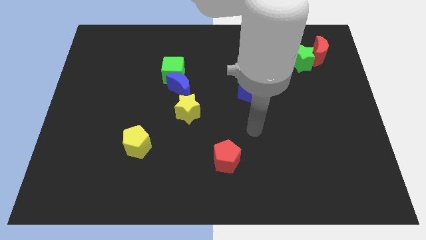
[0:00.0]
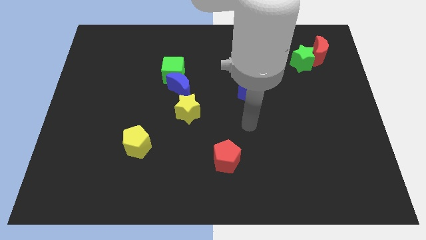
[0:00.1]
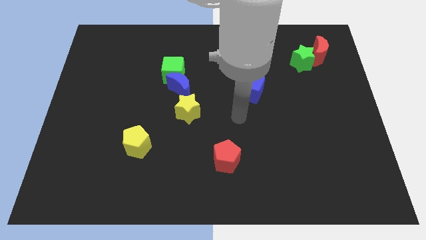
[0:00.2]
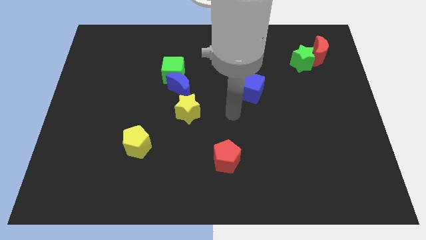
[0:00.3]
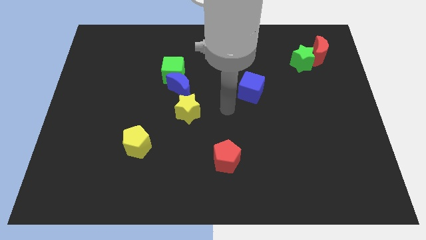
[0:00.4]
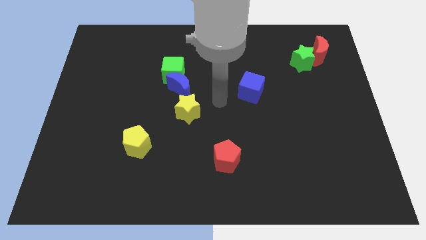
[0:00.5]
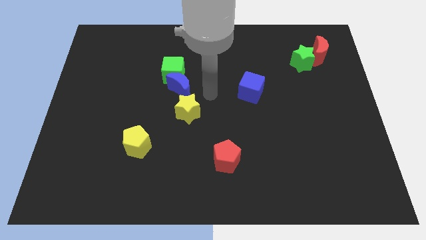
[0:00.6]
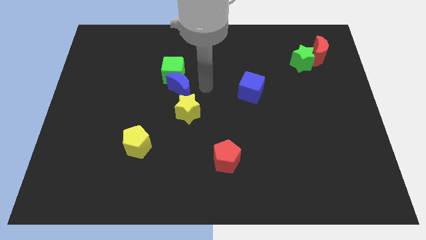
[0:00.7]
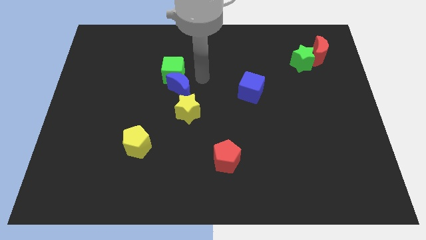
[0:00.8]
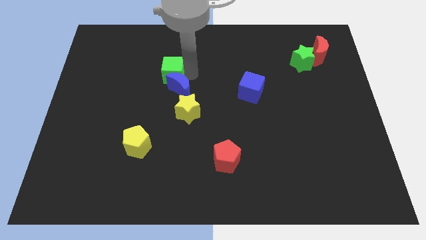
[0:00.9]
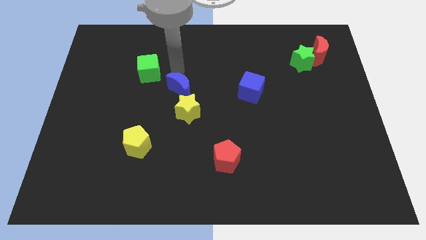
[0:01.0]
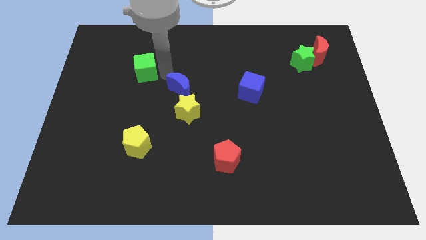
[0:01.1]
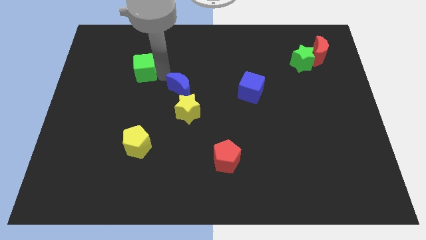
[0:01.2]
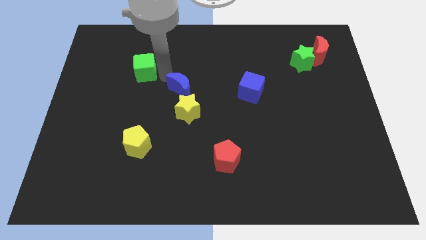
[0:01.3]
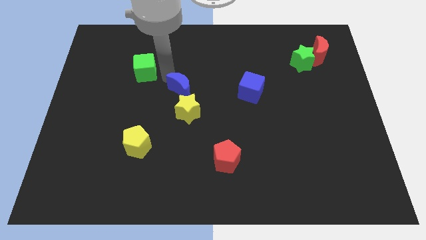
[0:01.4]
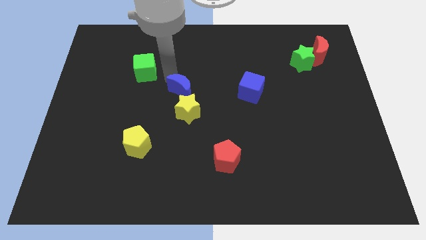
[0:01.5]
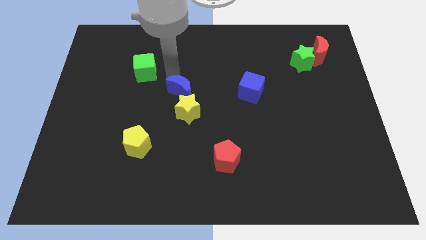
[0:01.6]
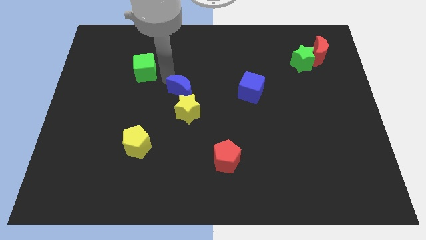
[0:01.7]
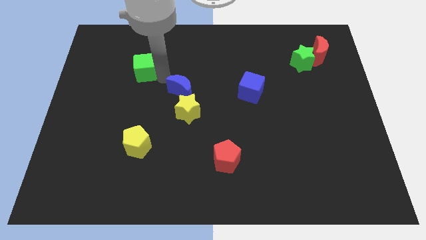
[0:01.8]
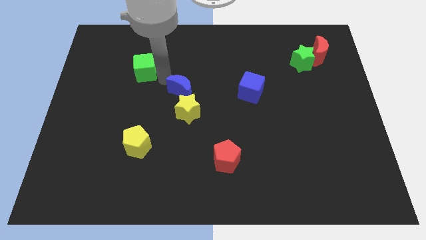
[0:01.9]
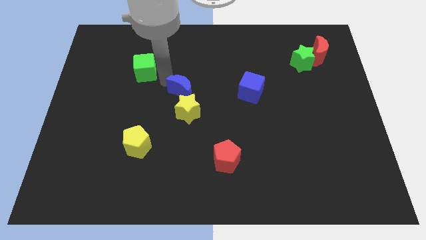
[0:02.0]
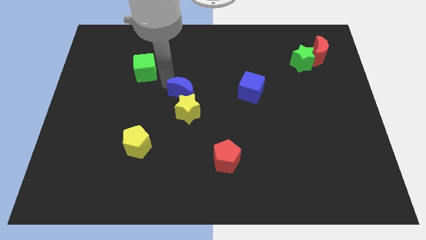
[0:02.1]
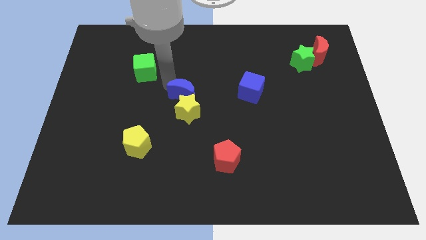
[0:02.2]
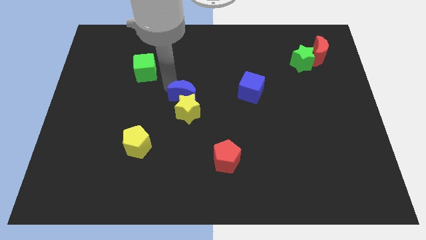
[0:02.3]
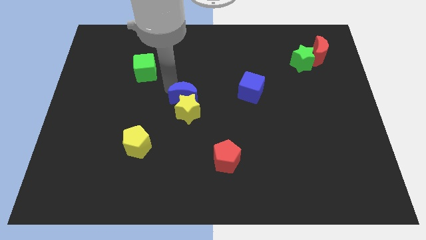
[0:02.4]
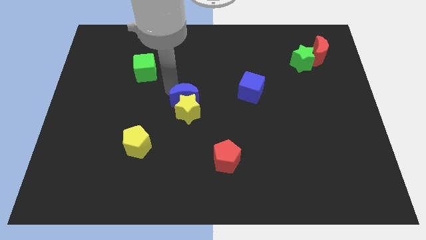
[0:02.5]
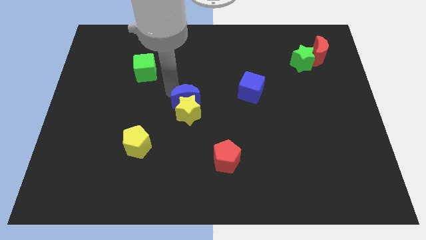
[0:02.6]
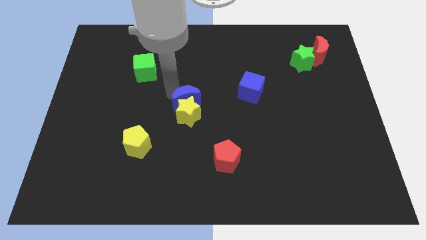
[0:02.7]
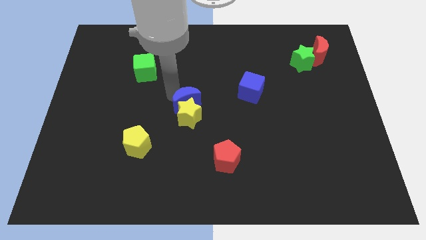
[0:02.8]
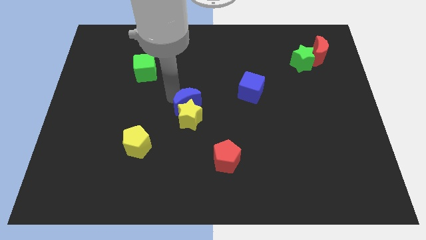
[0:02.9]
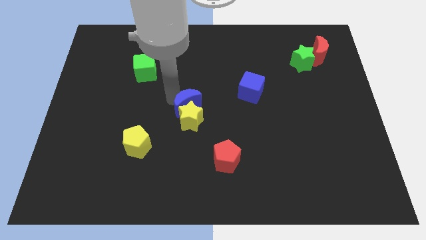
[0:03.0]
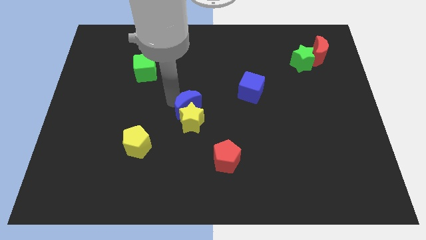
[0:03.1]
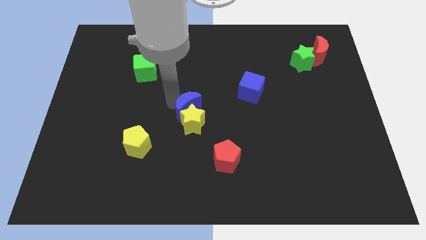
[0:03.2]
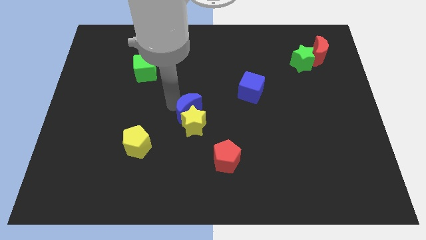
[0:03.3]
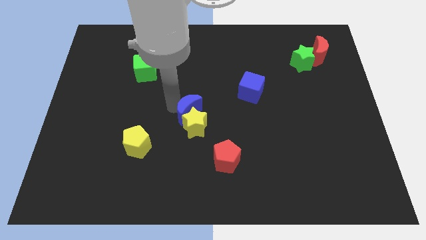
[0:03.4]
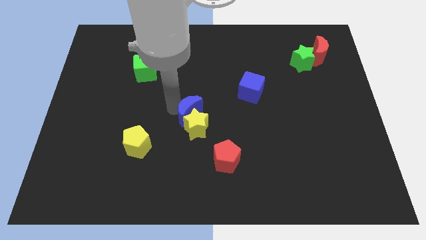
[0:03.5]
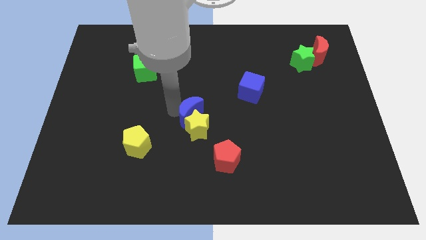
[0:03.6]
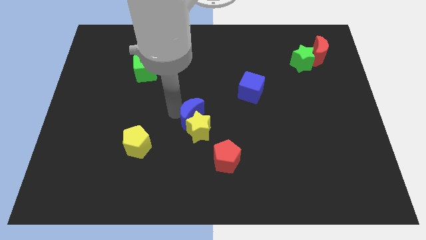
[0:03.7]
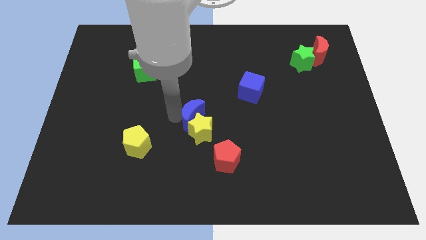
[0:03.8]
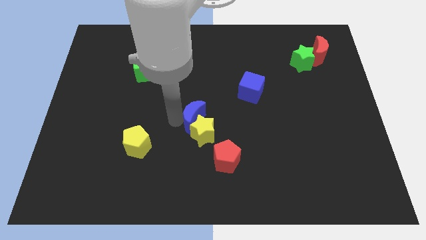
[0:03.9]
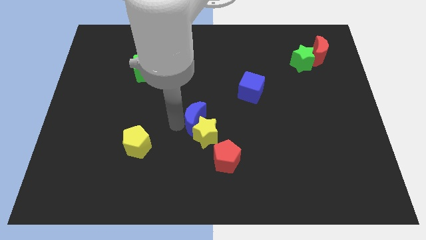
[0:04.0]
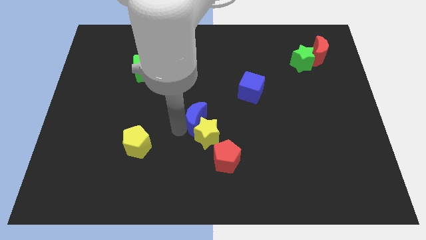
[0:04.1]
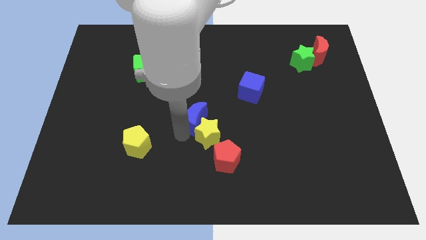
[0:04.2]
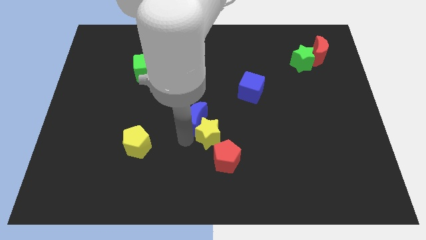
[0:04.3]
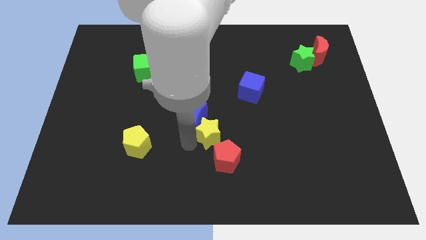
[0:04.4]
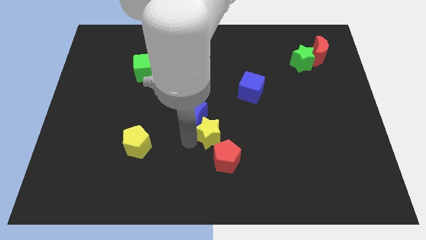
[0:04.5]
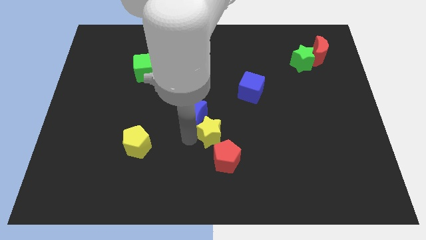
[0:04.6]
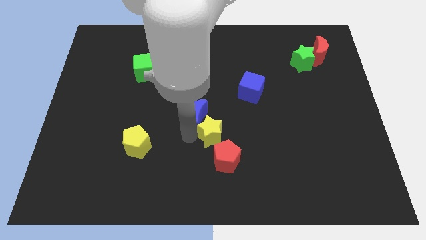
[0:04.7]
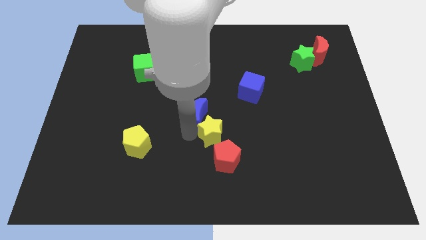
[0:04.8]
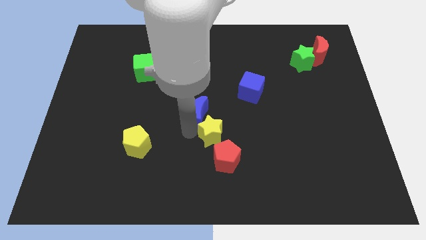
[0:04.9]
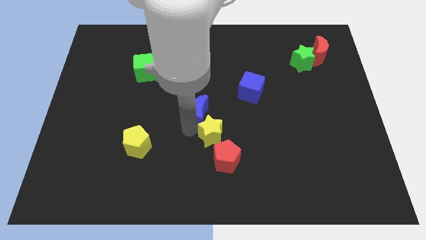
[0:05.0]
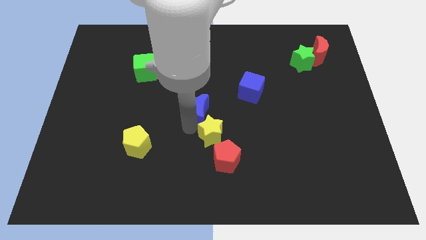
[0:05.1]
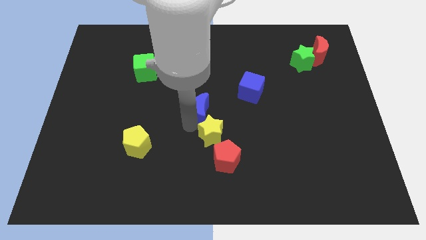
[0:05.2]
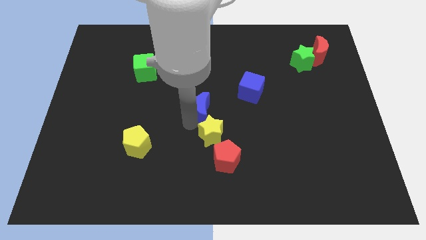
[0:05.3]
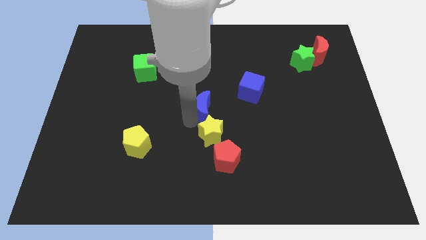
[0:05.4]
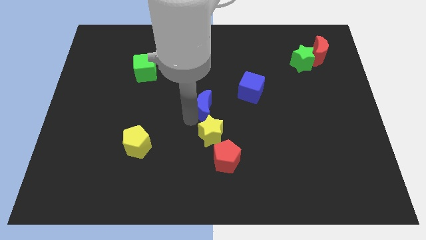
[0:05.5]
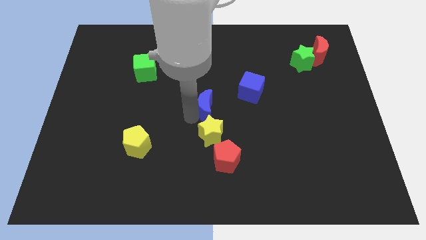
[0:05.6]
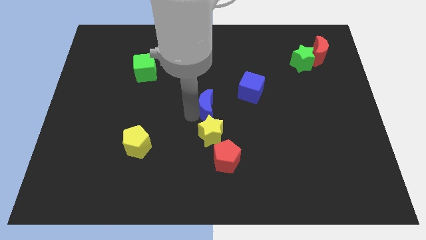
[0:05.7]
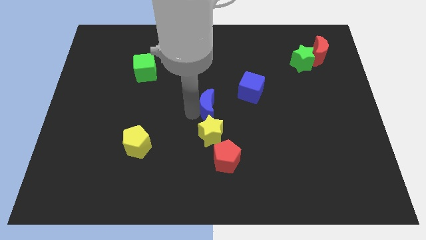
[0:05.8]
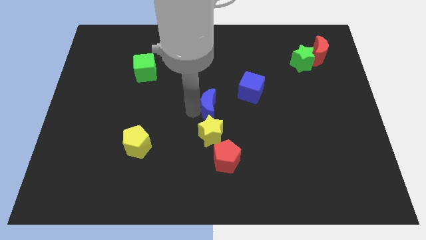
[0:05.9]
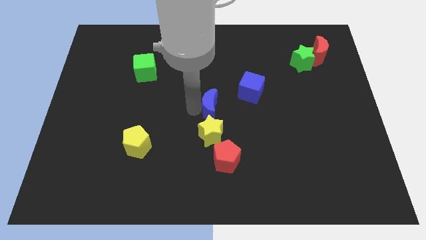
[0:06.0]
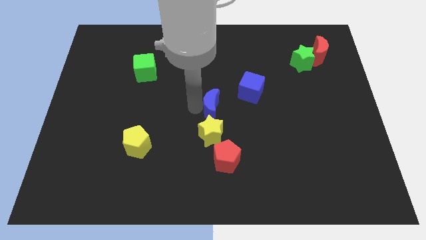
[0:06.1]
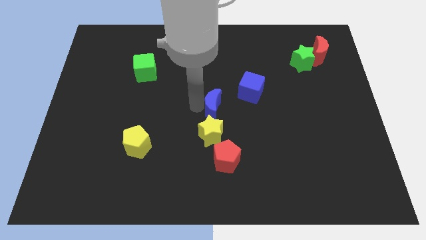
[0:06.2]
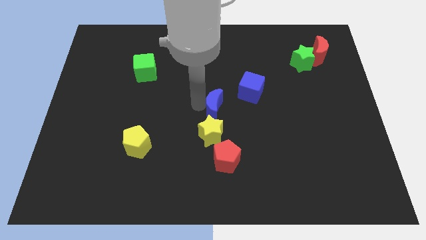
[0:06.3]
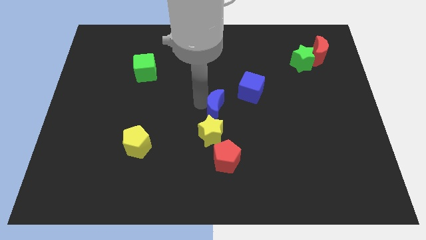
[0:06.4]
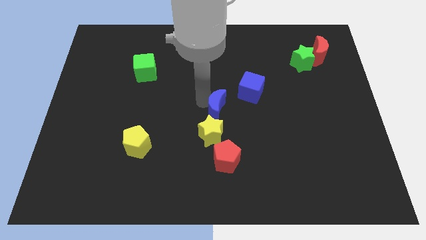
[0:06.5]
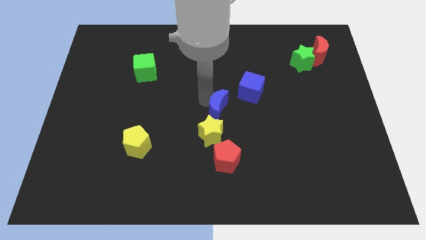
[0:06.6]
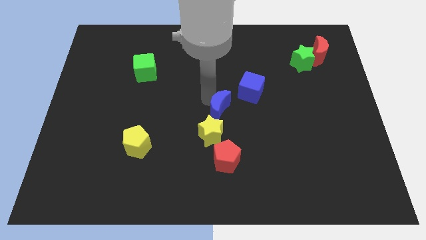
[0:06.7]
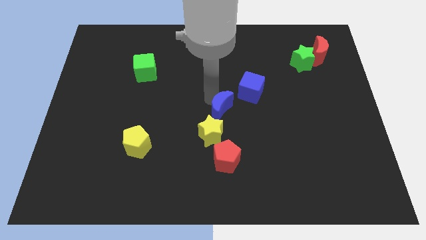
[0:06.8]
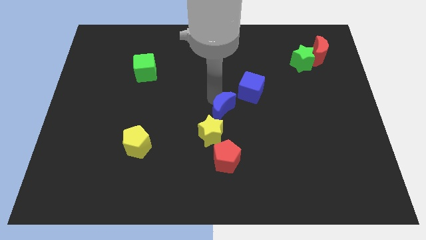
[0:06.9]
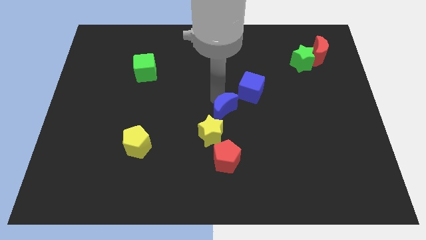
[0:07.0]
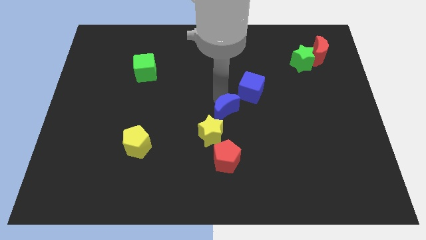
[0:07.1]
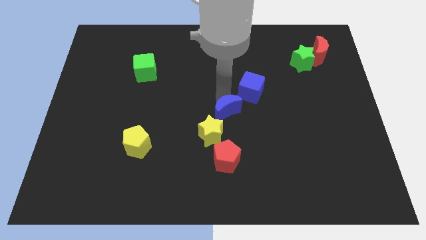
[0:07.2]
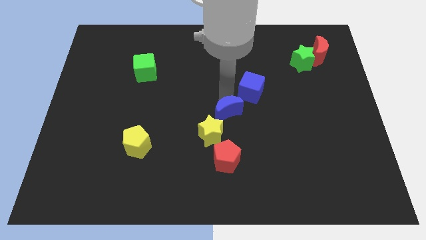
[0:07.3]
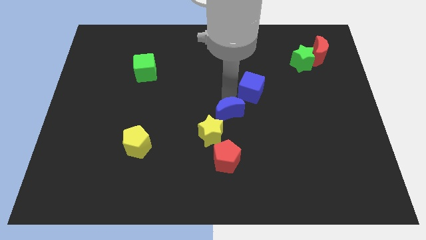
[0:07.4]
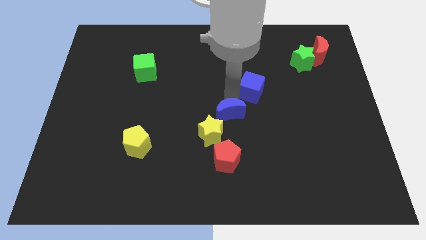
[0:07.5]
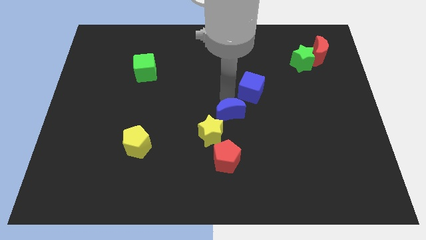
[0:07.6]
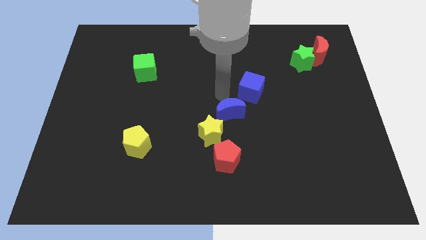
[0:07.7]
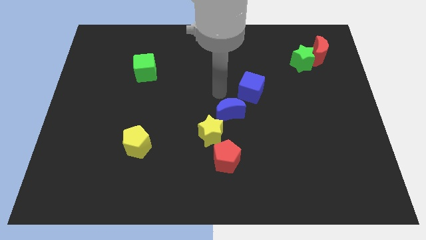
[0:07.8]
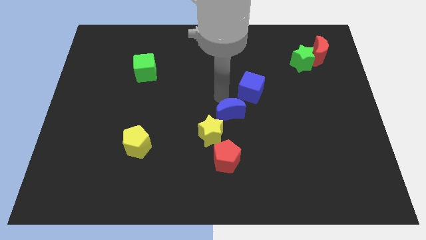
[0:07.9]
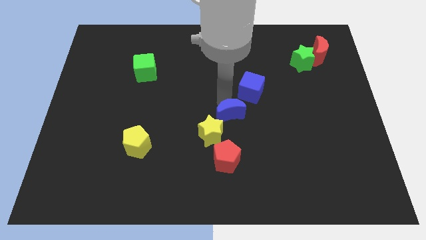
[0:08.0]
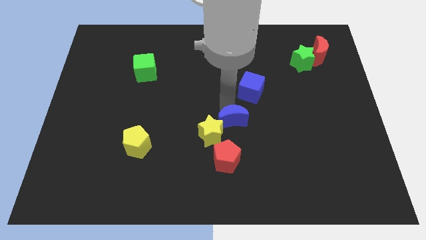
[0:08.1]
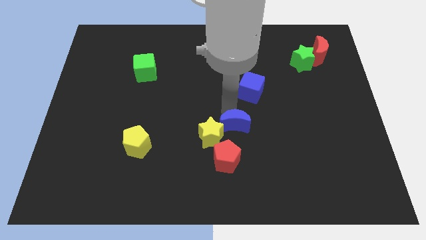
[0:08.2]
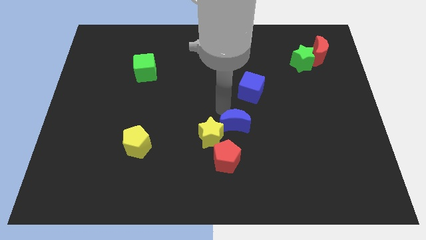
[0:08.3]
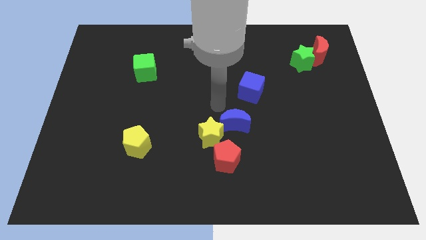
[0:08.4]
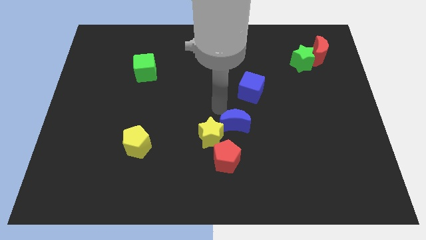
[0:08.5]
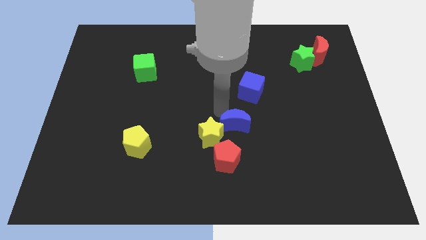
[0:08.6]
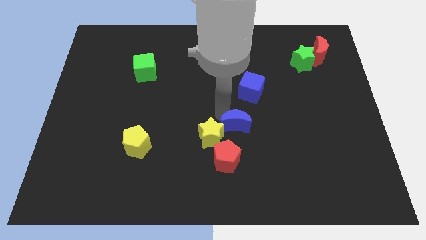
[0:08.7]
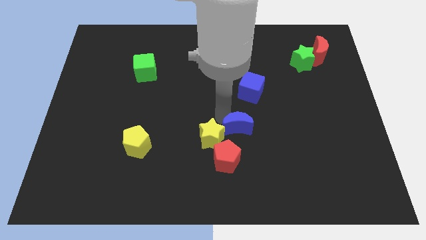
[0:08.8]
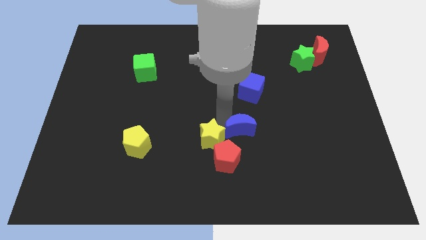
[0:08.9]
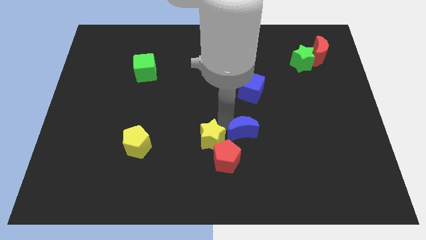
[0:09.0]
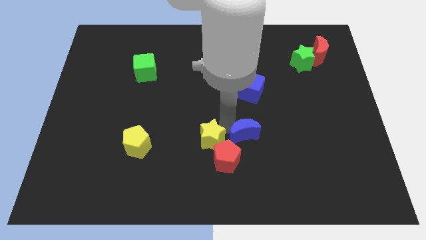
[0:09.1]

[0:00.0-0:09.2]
move the blue moon down and right
